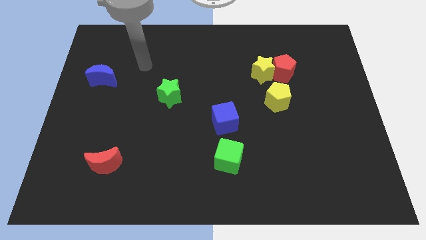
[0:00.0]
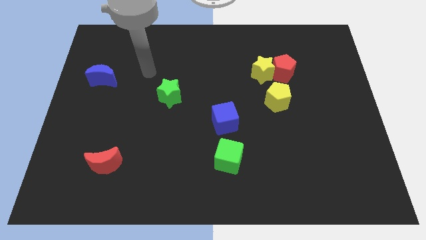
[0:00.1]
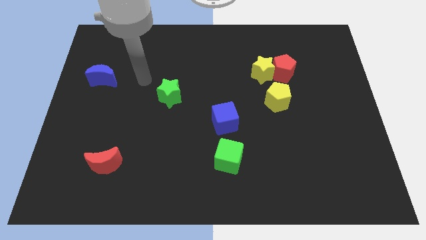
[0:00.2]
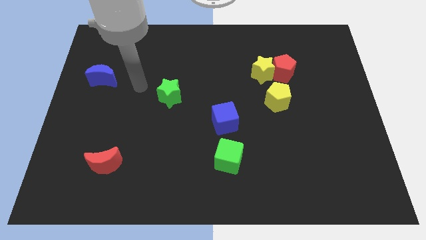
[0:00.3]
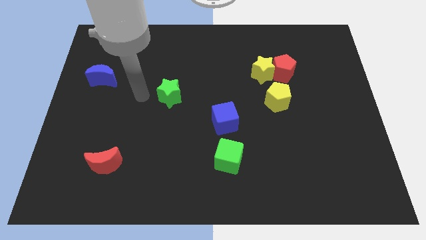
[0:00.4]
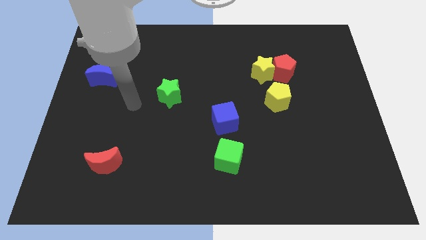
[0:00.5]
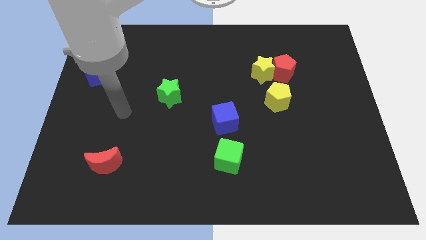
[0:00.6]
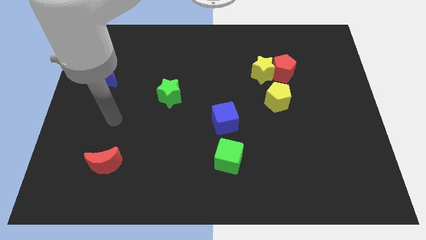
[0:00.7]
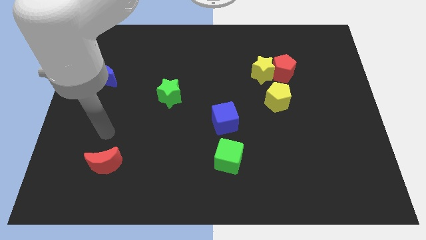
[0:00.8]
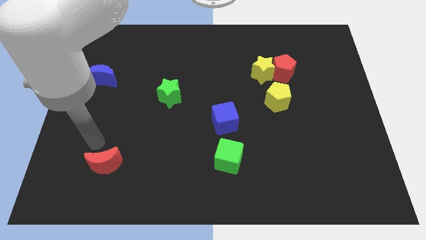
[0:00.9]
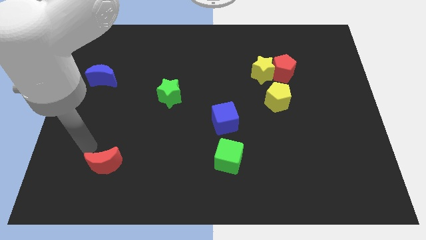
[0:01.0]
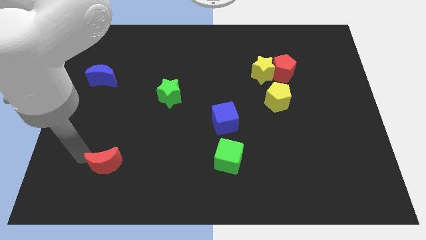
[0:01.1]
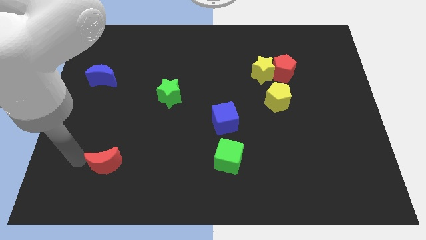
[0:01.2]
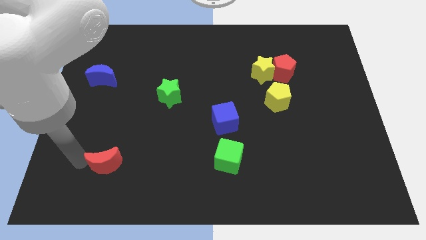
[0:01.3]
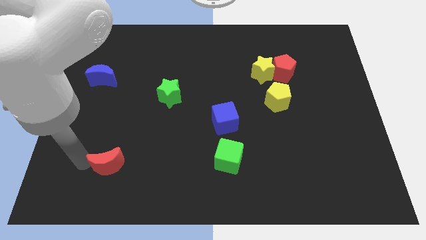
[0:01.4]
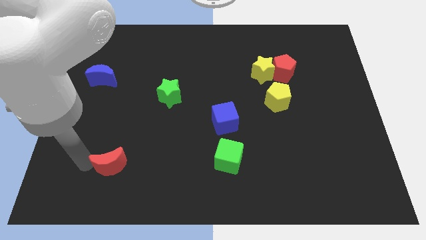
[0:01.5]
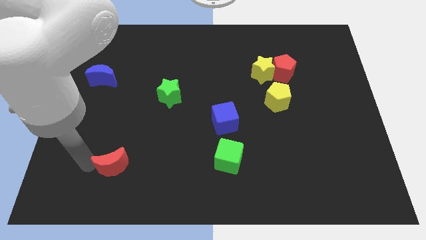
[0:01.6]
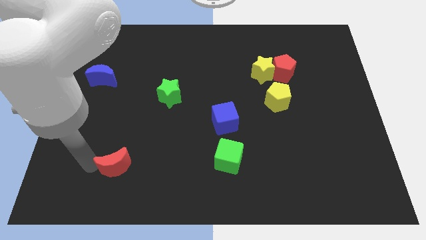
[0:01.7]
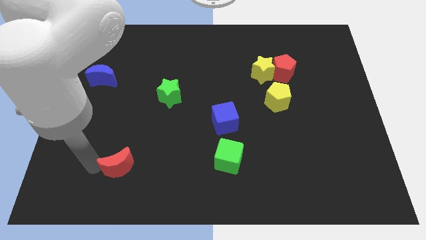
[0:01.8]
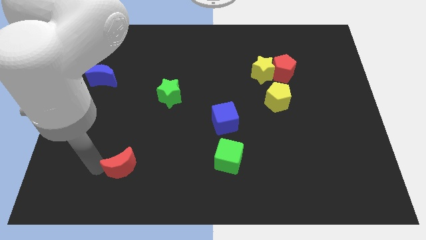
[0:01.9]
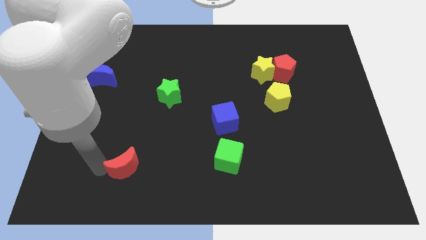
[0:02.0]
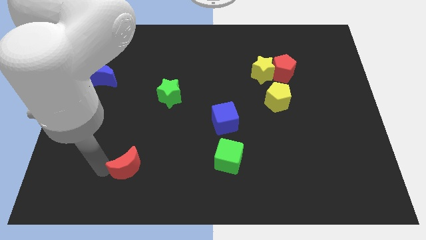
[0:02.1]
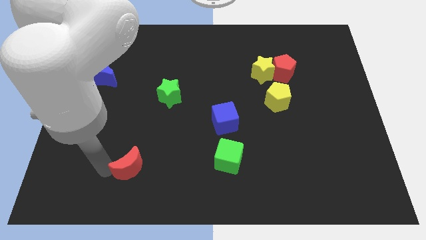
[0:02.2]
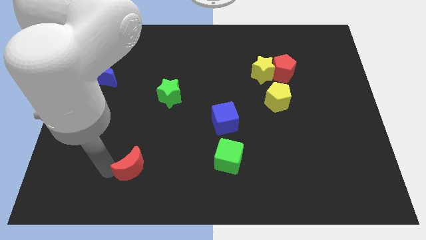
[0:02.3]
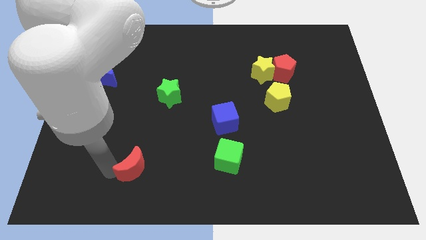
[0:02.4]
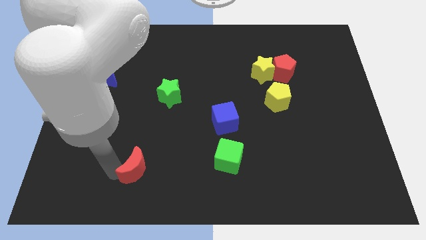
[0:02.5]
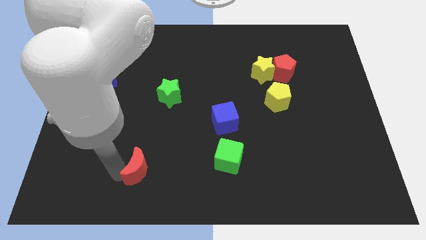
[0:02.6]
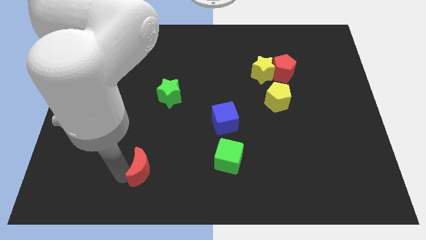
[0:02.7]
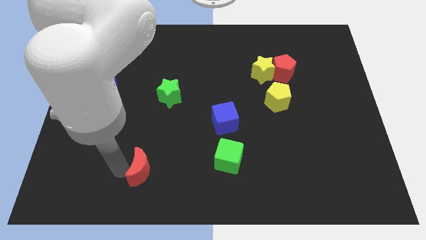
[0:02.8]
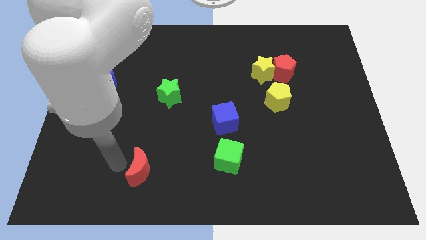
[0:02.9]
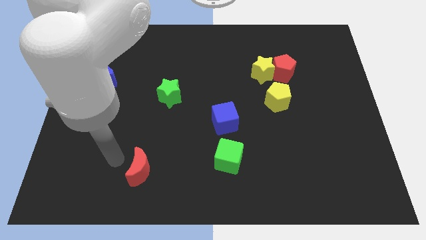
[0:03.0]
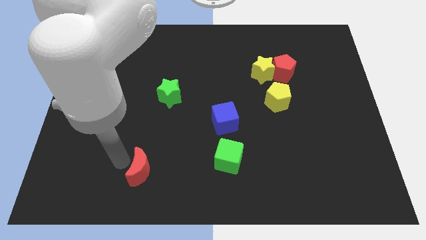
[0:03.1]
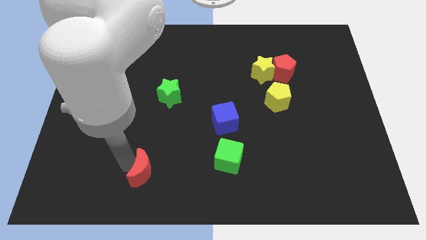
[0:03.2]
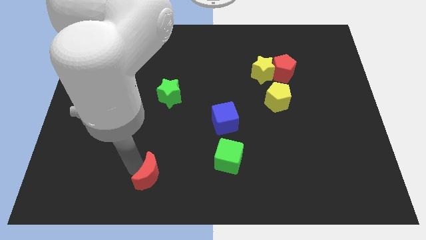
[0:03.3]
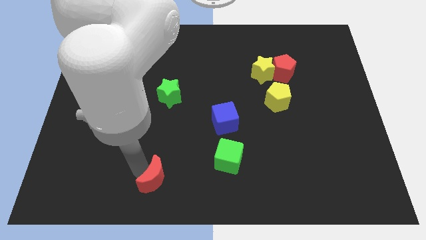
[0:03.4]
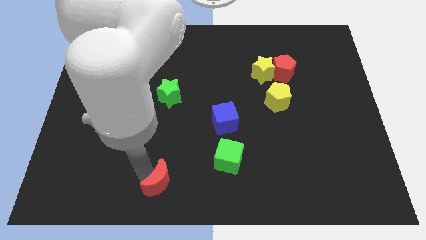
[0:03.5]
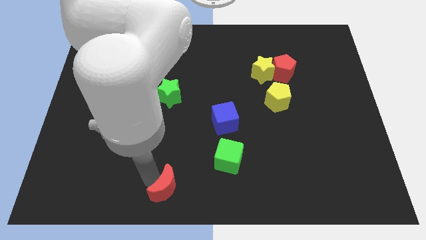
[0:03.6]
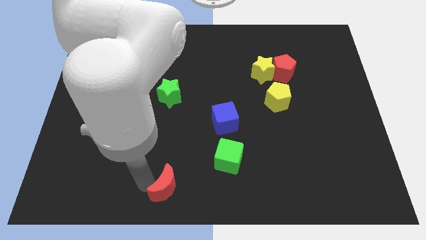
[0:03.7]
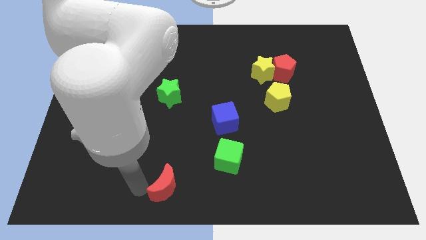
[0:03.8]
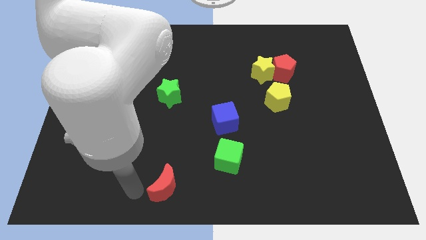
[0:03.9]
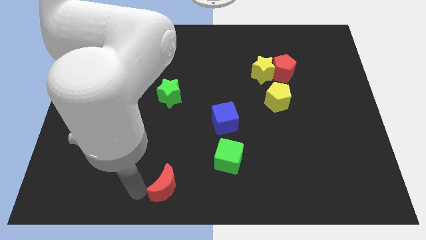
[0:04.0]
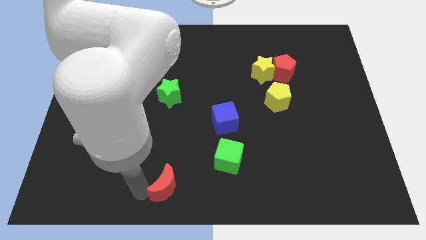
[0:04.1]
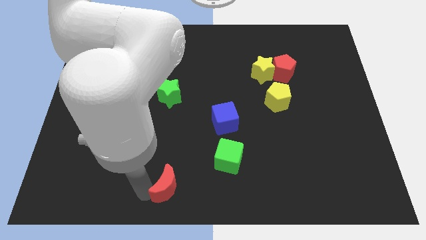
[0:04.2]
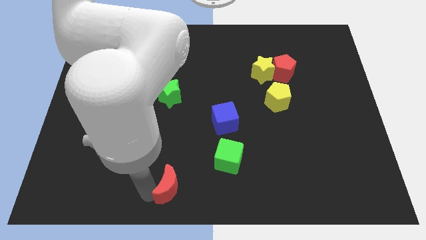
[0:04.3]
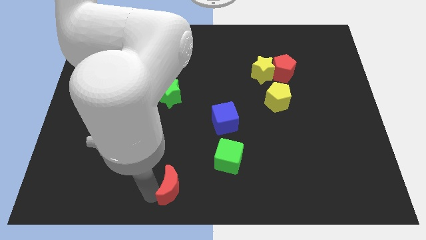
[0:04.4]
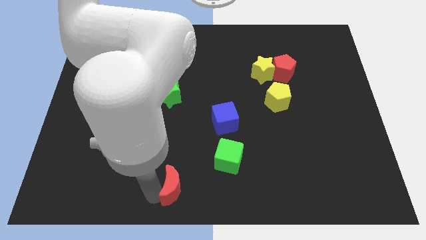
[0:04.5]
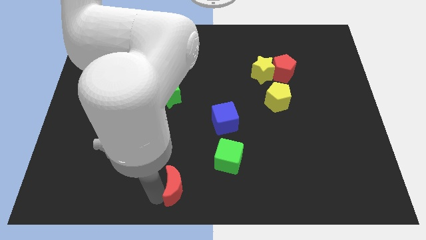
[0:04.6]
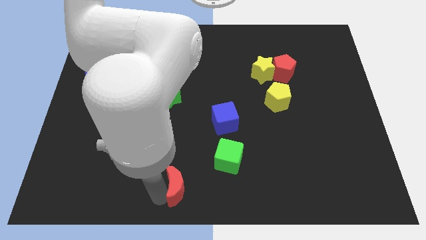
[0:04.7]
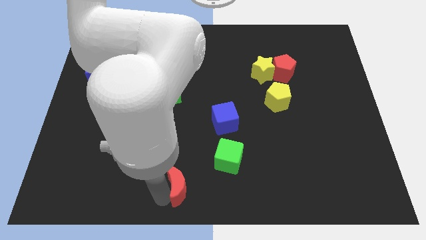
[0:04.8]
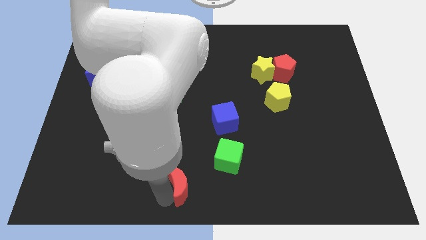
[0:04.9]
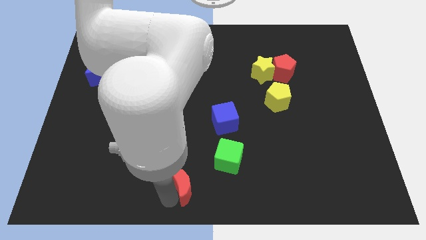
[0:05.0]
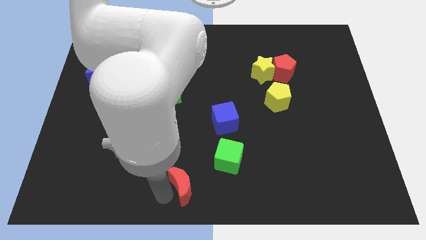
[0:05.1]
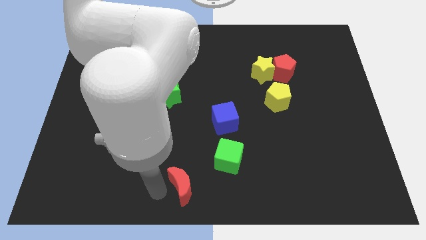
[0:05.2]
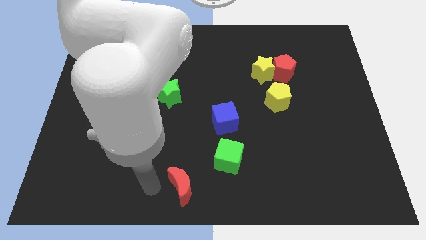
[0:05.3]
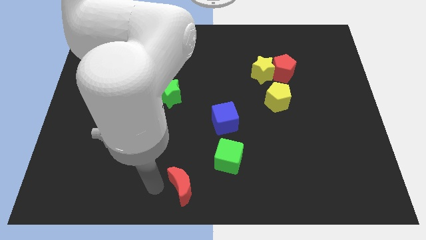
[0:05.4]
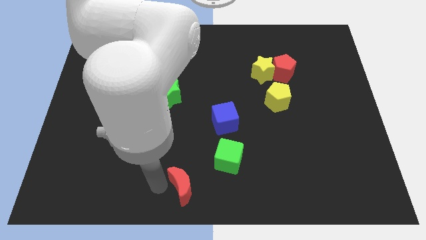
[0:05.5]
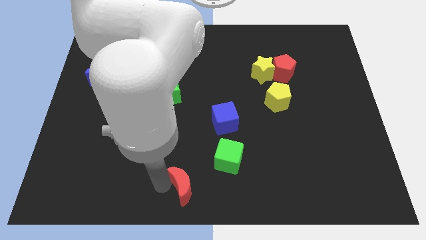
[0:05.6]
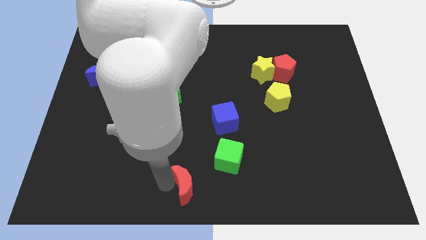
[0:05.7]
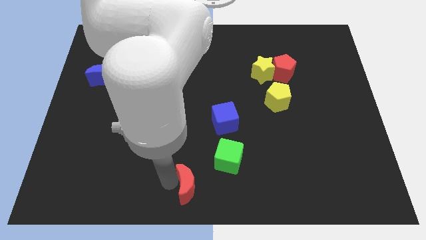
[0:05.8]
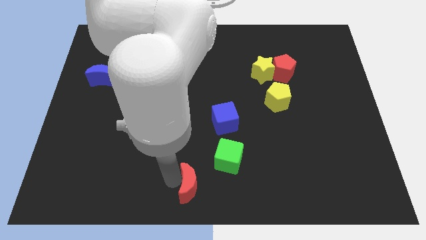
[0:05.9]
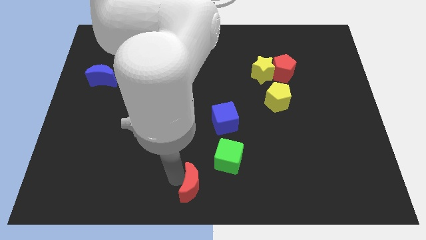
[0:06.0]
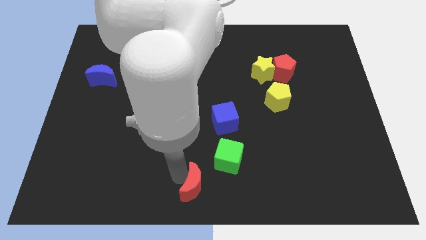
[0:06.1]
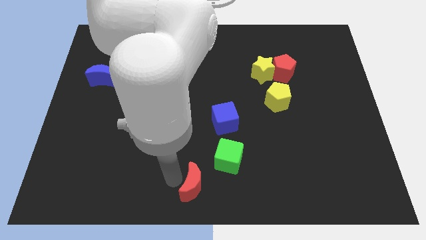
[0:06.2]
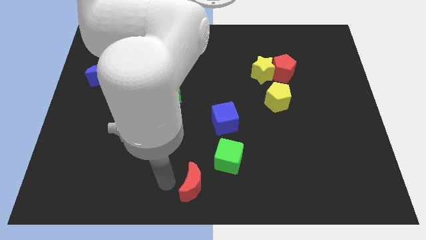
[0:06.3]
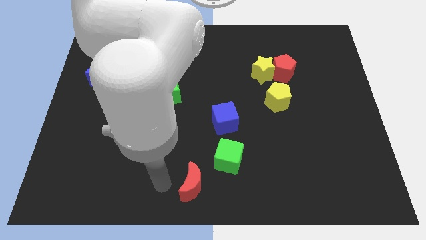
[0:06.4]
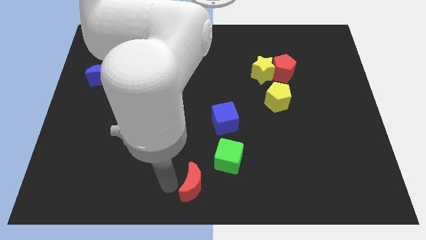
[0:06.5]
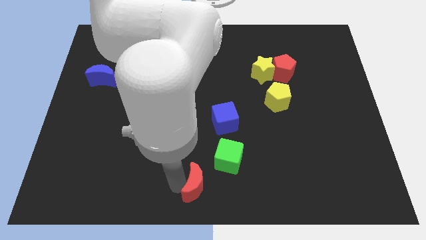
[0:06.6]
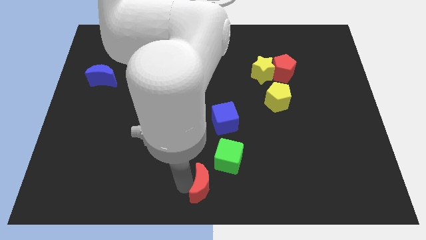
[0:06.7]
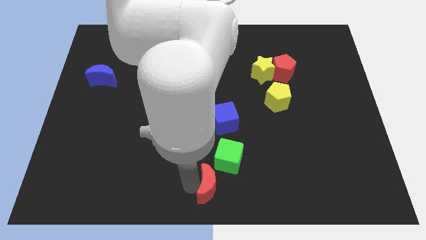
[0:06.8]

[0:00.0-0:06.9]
move the red moon to the right

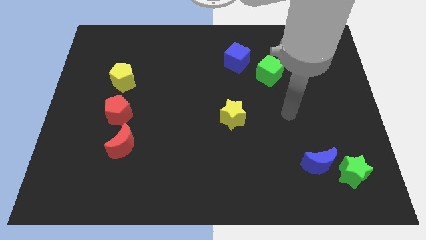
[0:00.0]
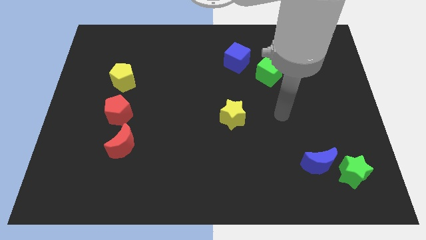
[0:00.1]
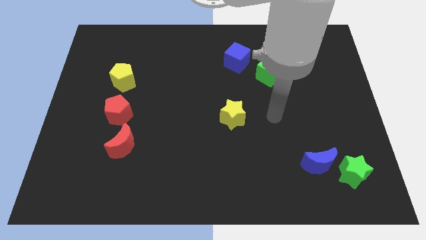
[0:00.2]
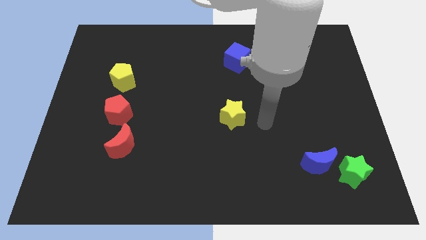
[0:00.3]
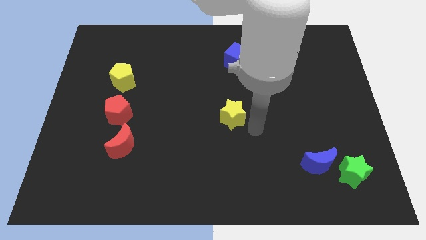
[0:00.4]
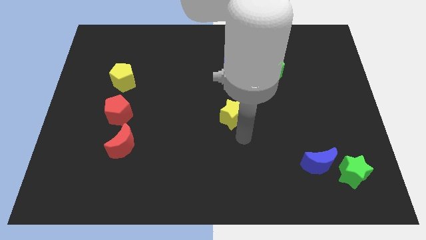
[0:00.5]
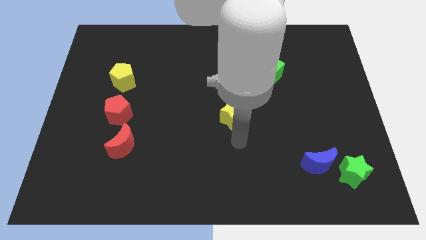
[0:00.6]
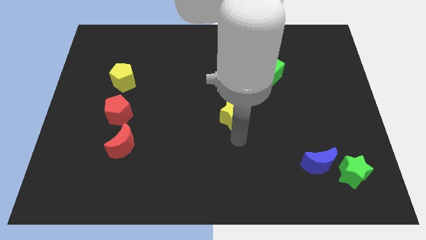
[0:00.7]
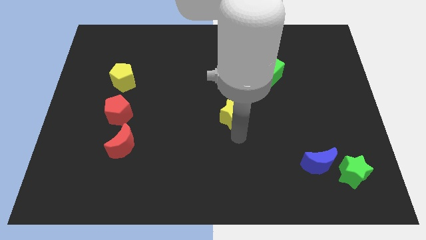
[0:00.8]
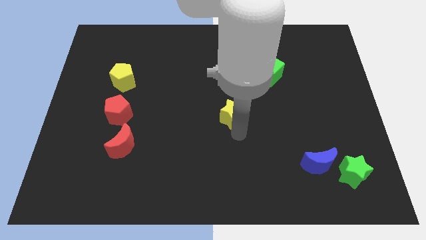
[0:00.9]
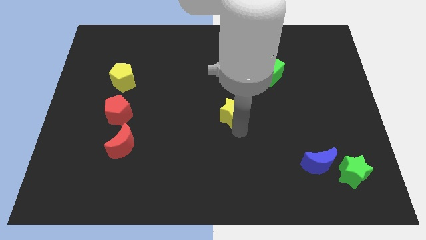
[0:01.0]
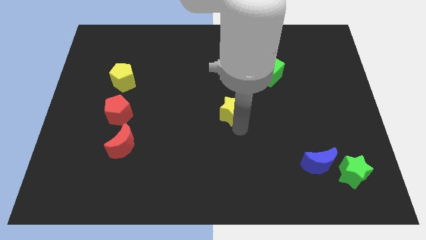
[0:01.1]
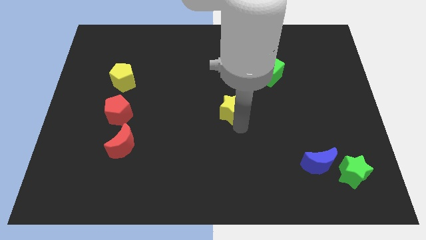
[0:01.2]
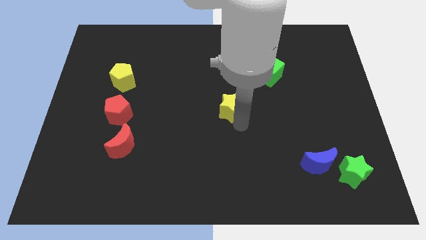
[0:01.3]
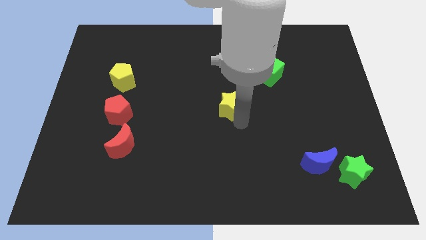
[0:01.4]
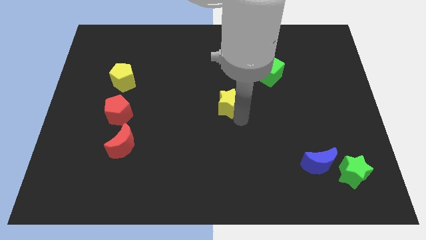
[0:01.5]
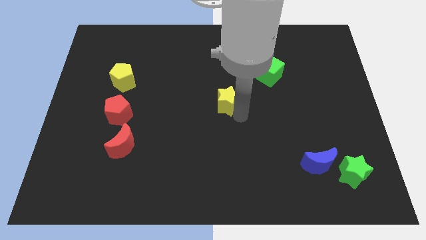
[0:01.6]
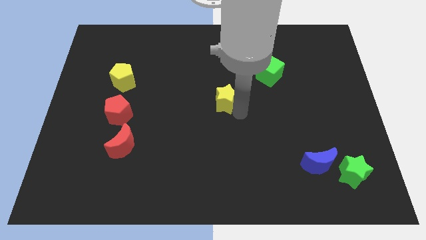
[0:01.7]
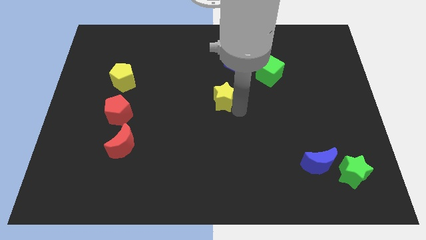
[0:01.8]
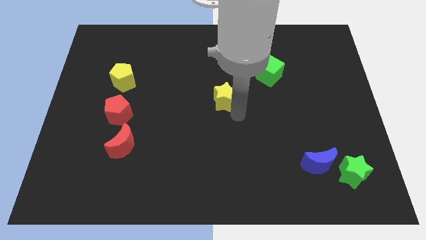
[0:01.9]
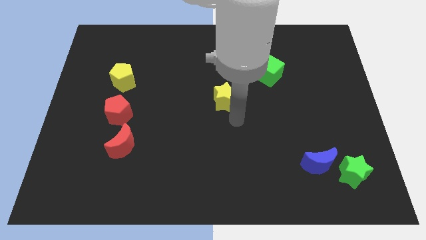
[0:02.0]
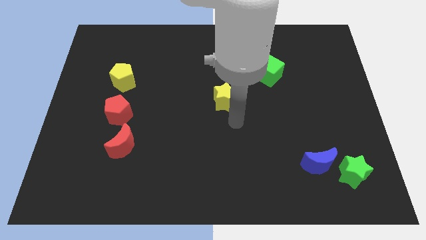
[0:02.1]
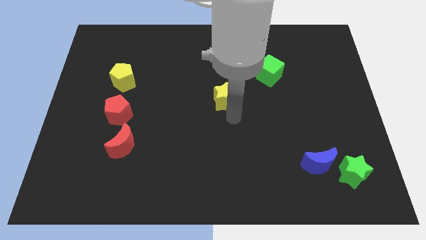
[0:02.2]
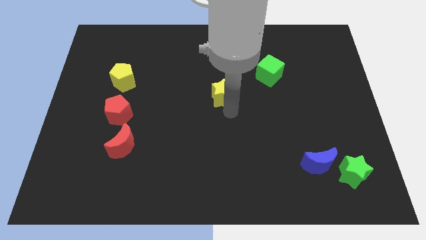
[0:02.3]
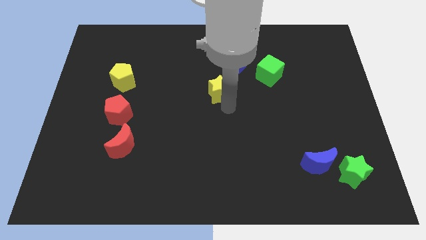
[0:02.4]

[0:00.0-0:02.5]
slightly push the yellow star up and then left
